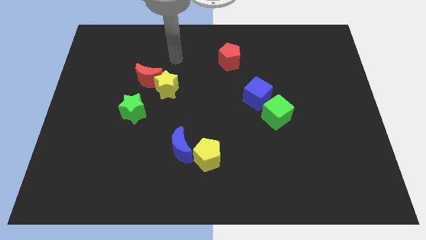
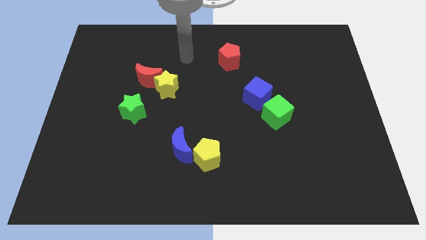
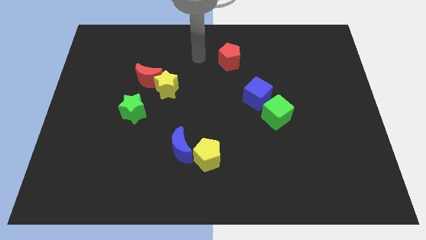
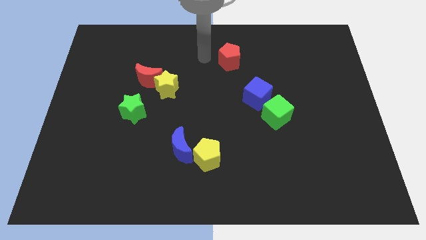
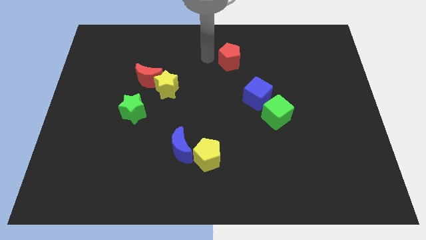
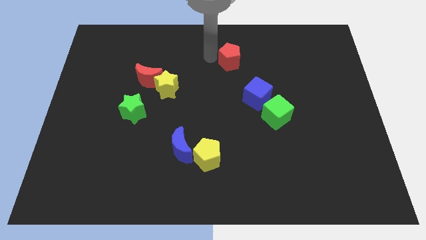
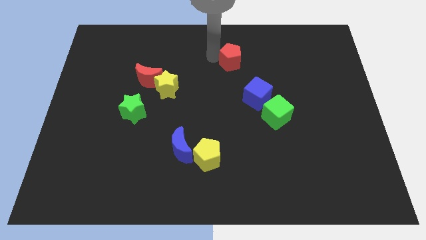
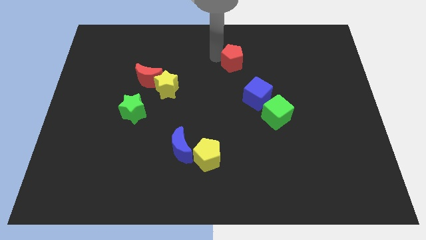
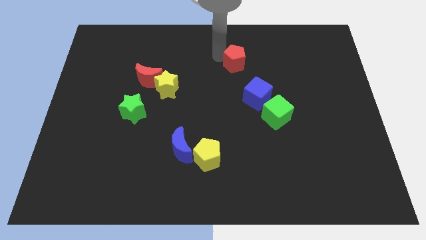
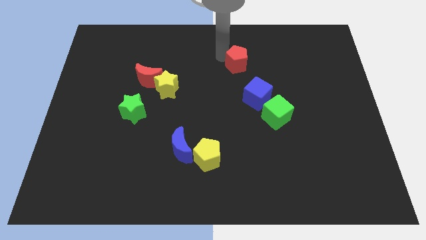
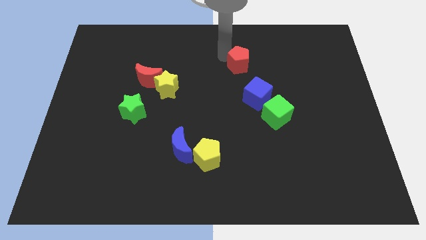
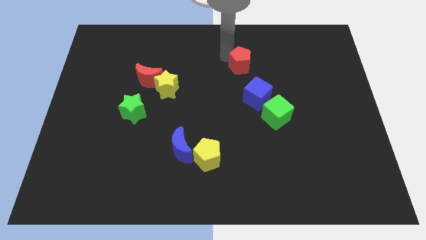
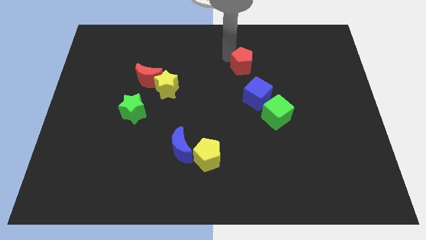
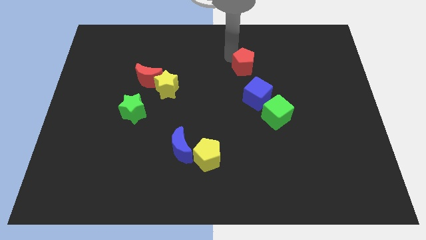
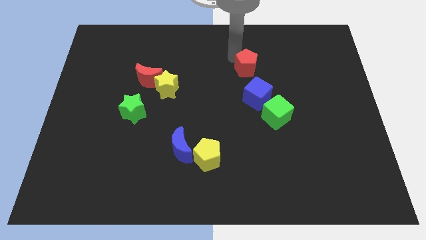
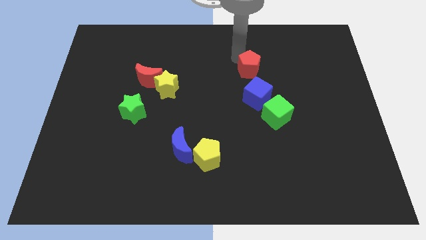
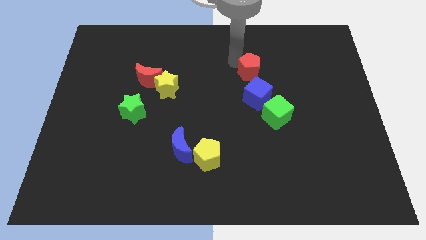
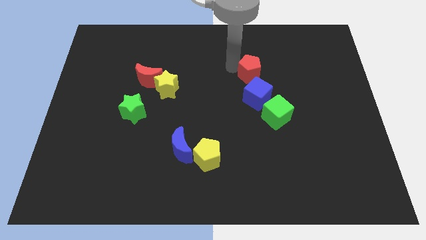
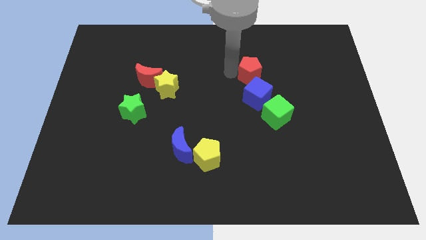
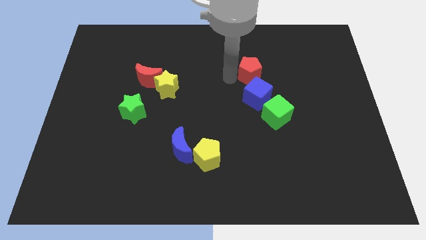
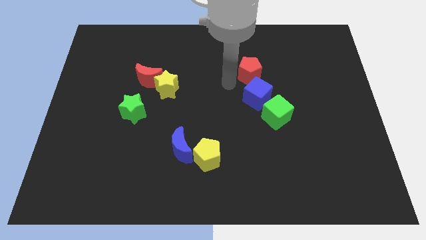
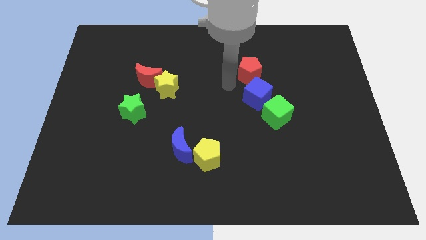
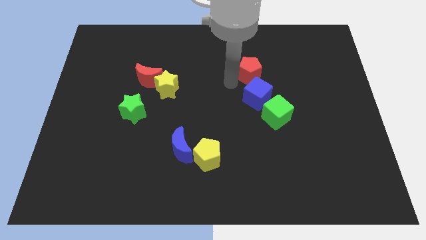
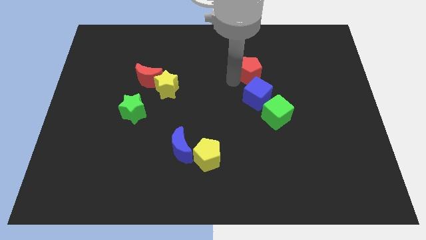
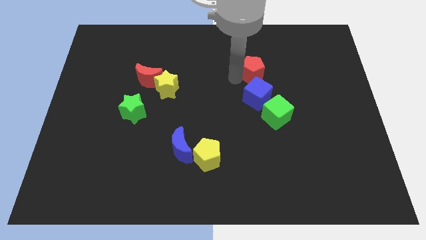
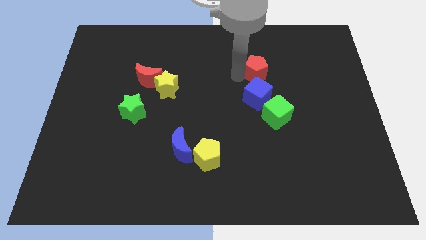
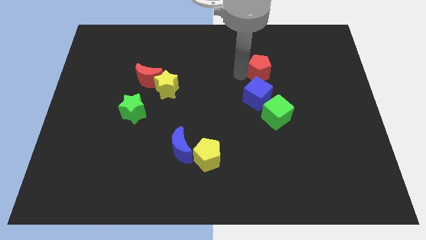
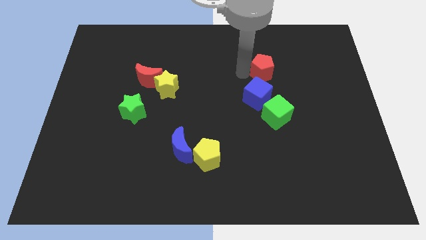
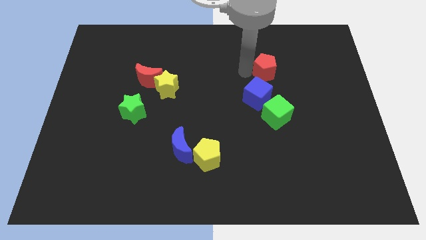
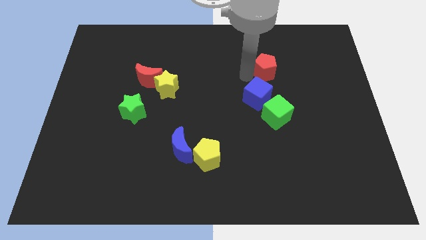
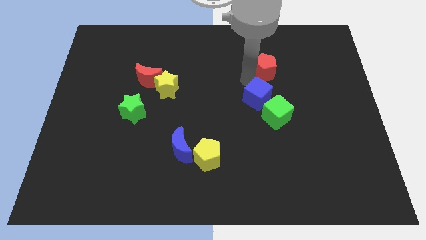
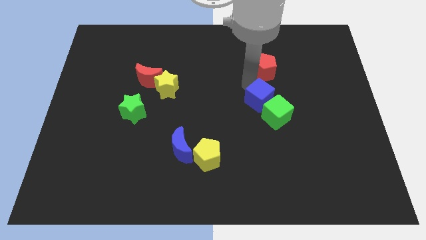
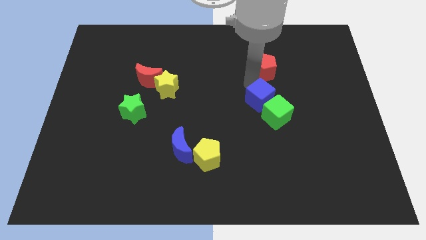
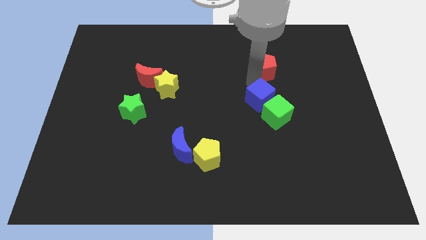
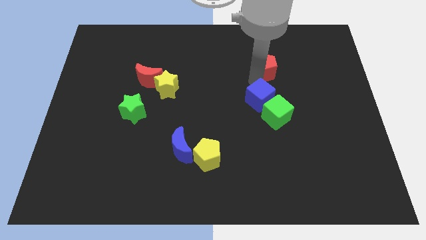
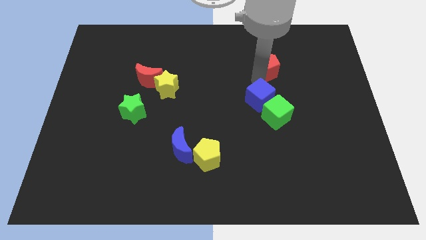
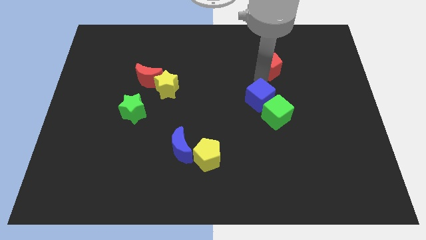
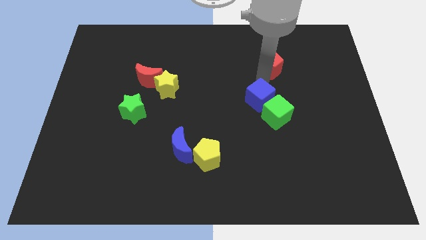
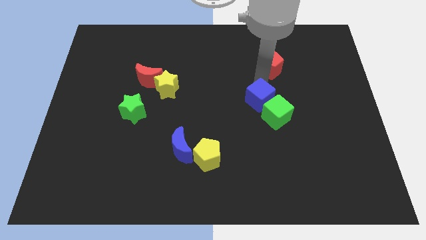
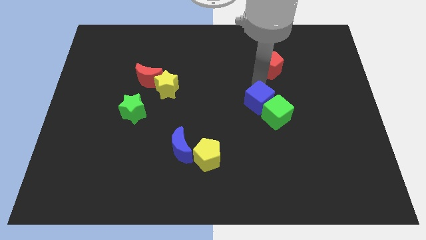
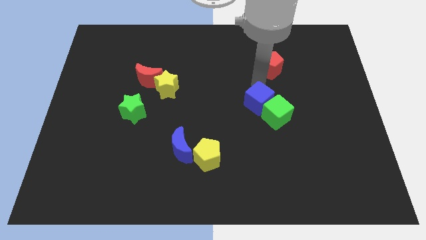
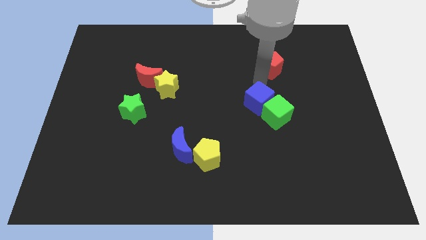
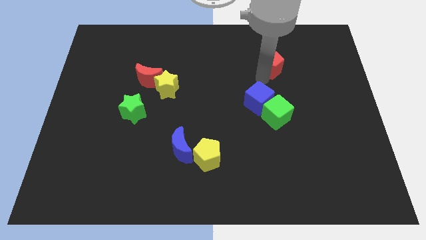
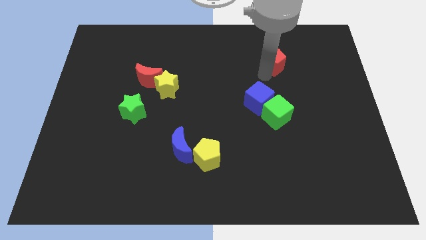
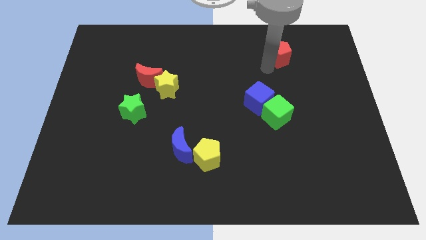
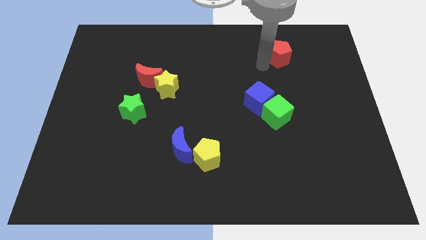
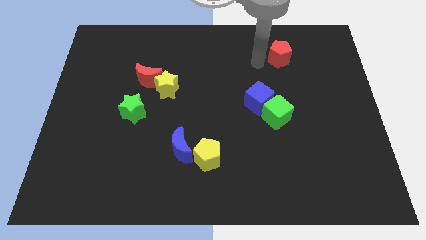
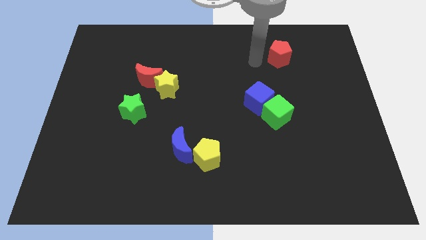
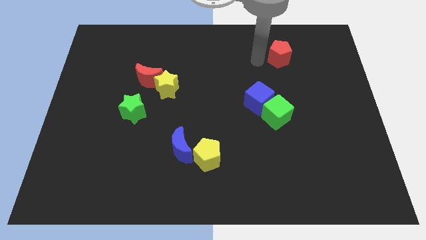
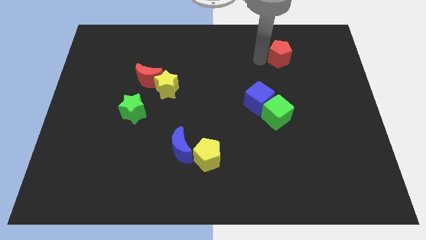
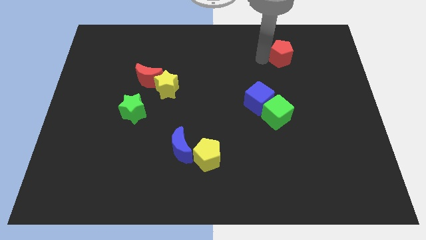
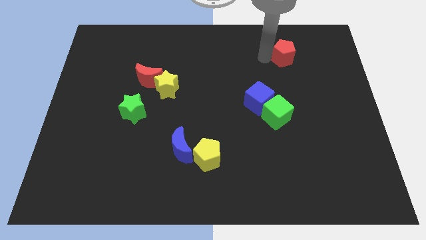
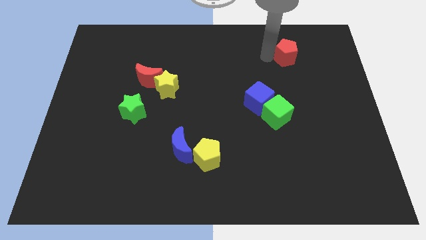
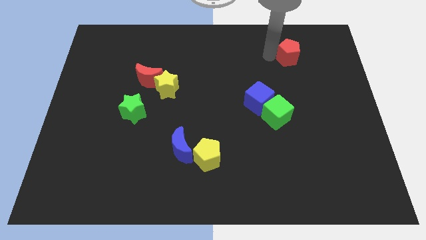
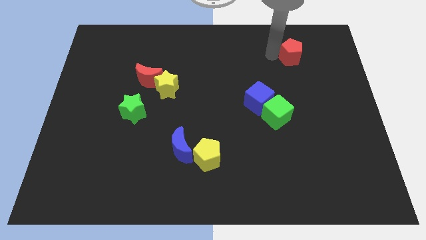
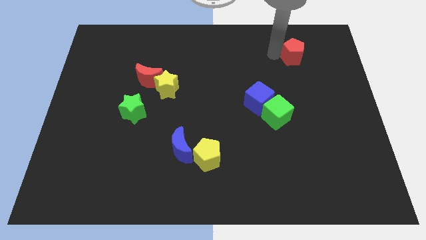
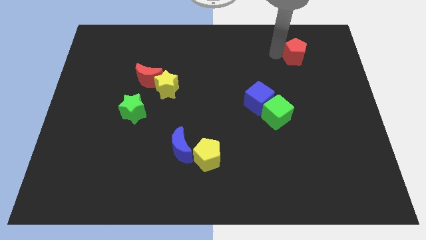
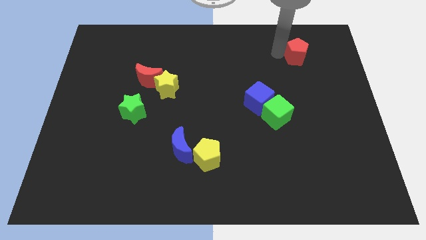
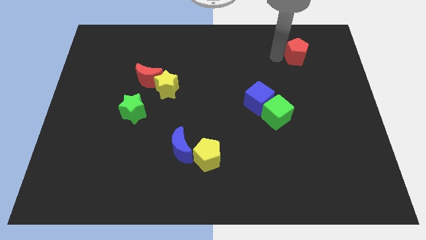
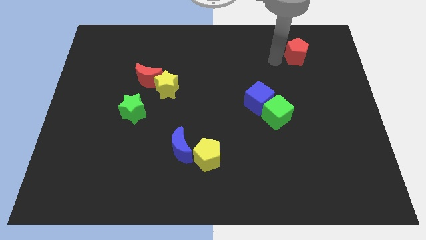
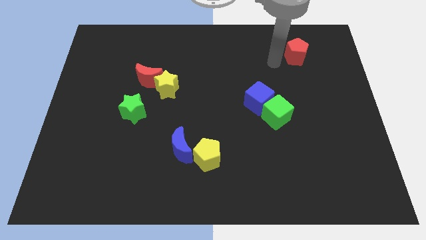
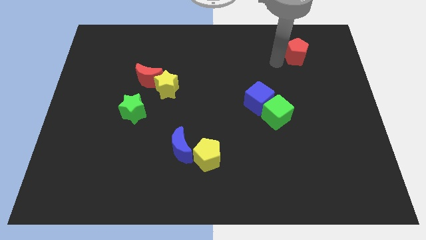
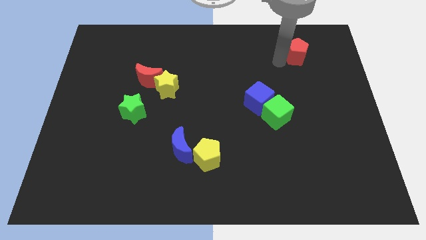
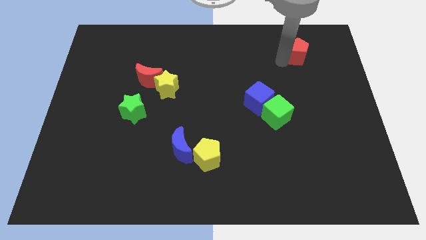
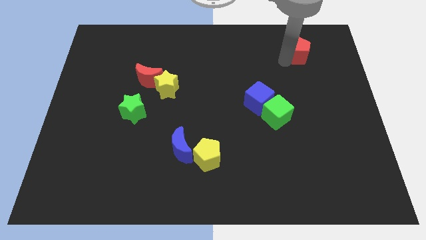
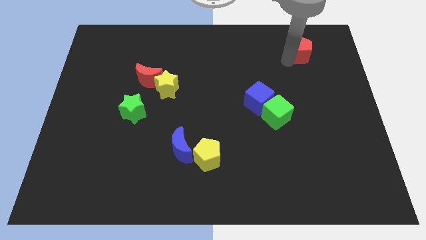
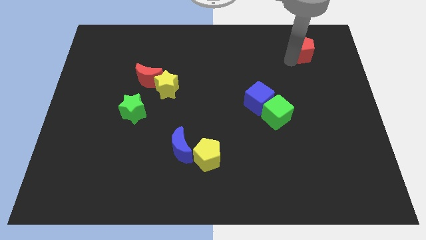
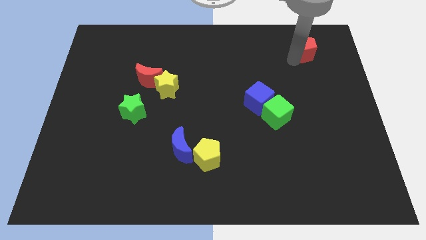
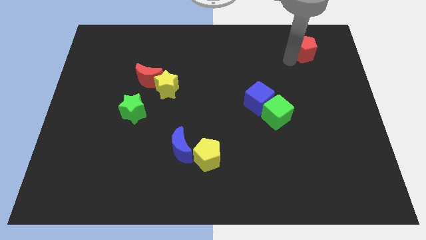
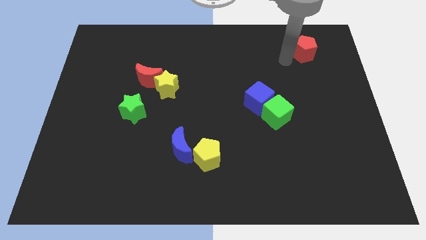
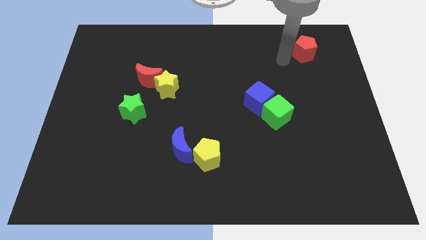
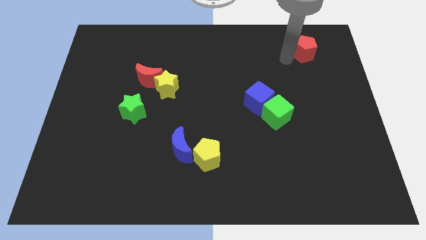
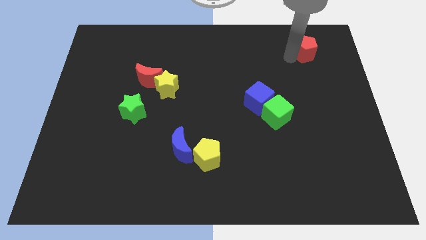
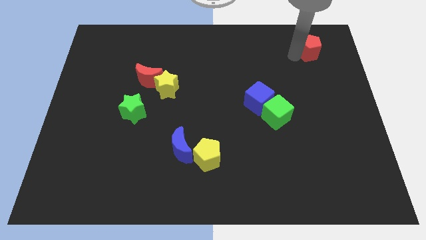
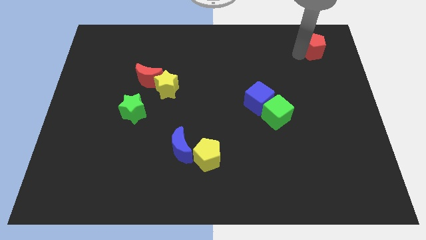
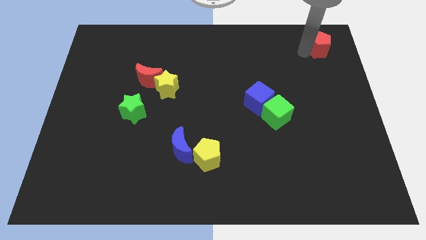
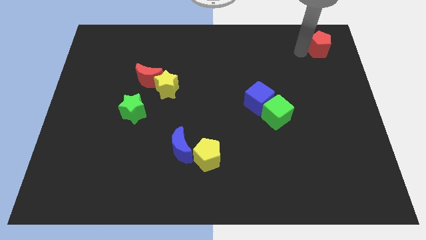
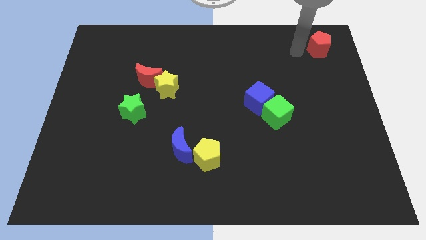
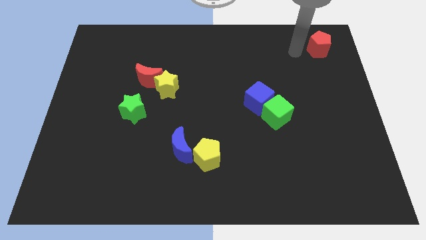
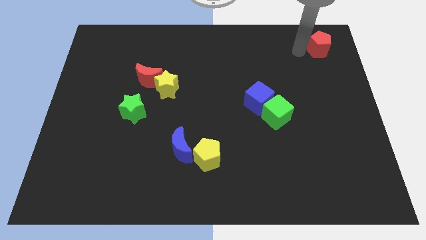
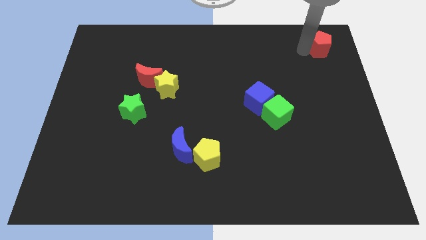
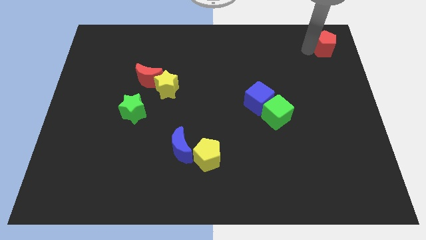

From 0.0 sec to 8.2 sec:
push the red pentagon to the upper right corner
